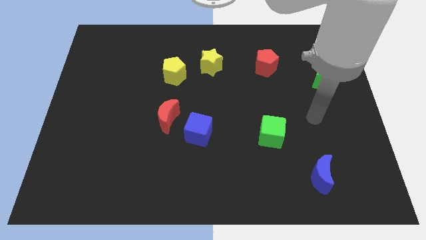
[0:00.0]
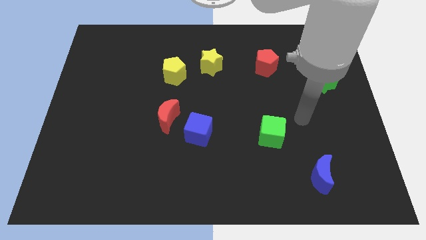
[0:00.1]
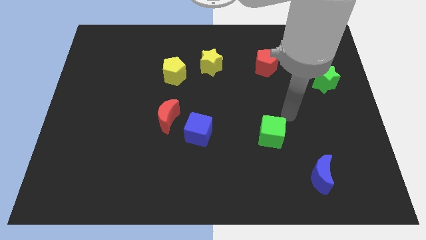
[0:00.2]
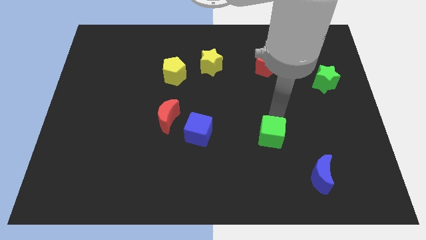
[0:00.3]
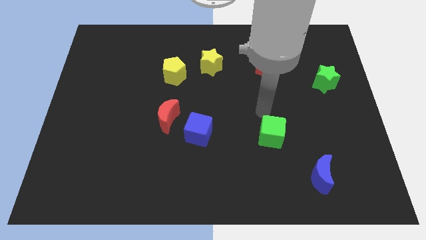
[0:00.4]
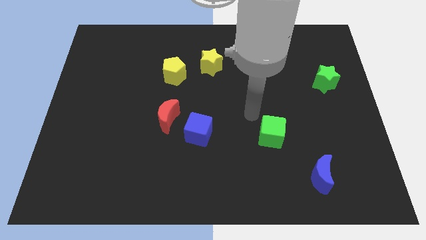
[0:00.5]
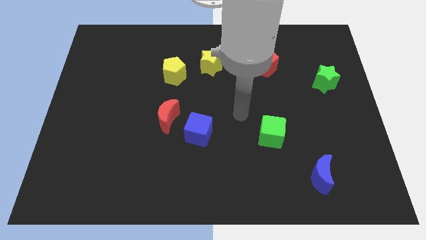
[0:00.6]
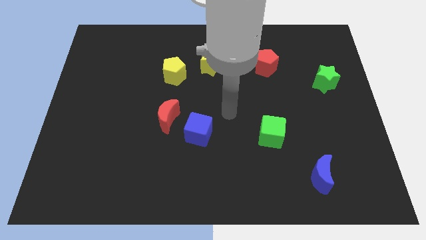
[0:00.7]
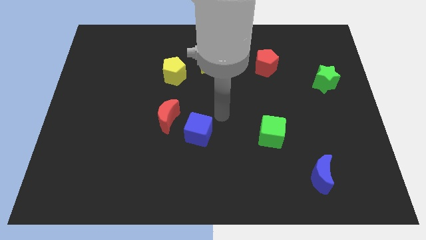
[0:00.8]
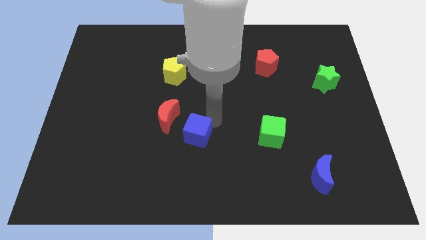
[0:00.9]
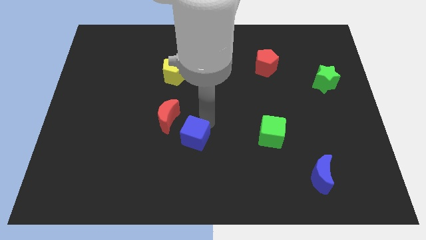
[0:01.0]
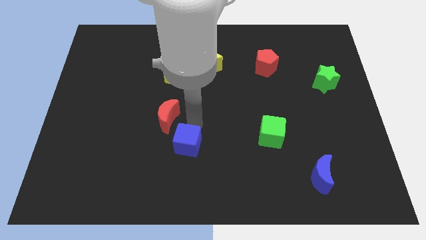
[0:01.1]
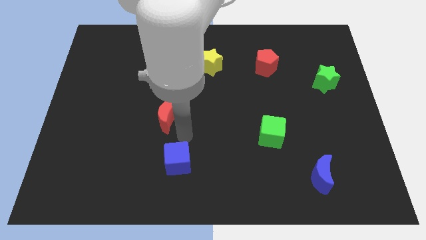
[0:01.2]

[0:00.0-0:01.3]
pull the red moon apart from the blue cube

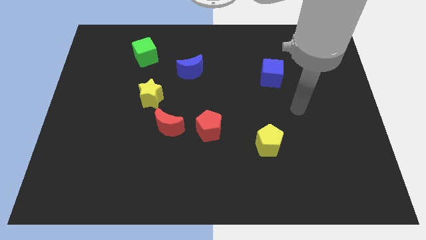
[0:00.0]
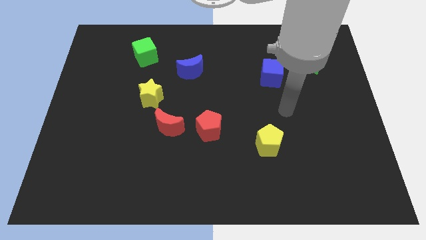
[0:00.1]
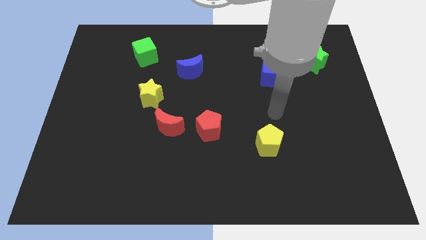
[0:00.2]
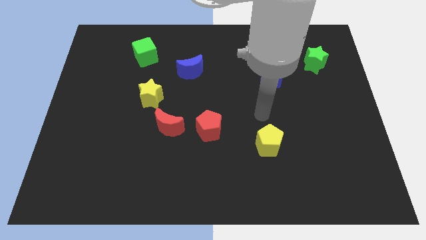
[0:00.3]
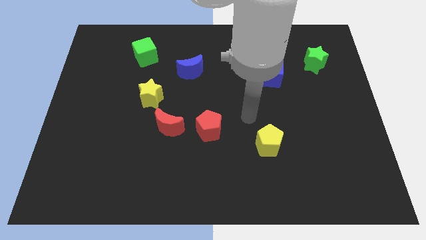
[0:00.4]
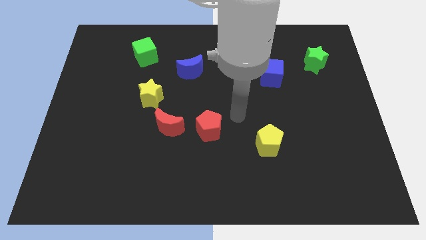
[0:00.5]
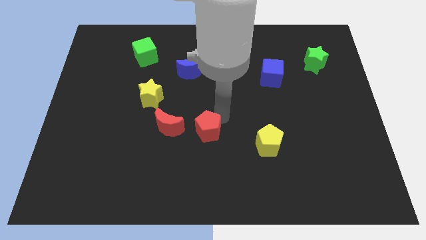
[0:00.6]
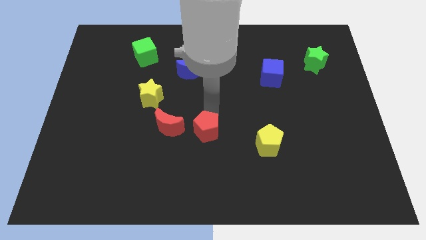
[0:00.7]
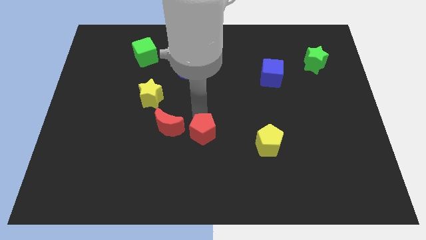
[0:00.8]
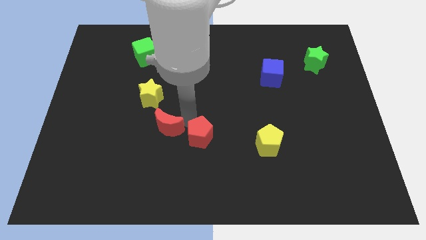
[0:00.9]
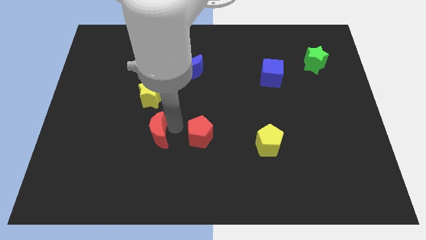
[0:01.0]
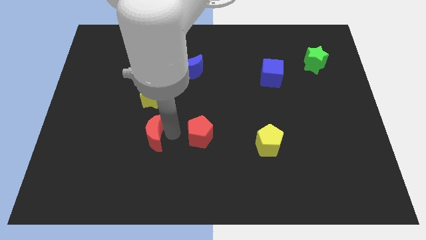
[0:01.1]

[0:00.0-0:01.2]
pull the red pentagon apart from the red moon

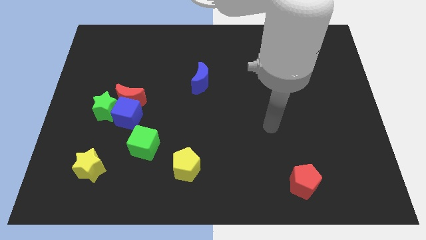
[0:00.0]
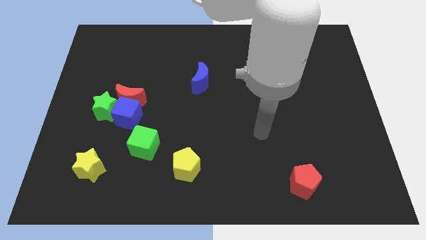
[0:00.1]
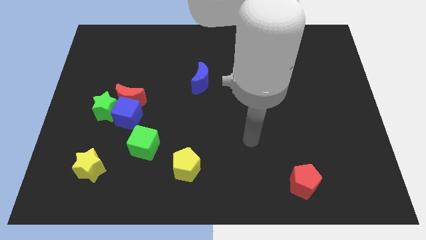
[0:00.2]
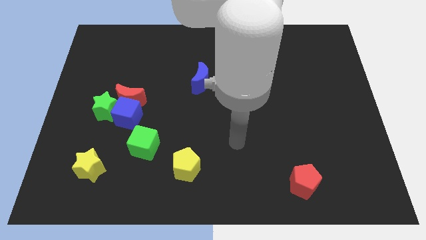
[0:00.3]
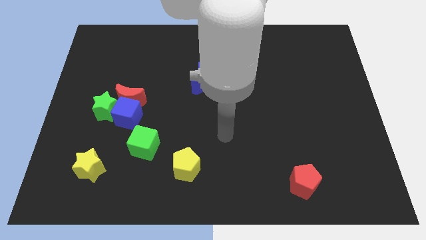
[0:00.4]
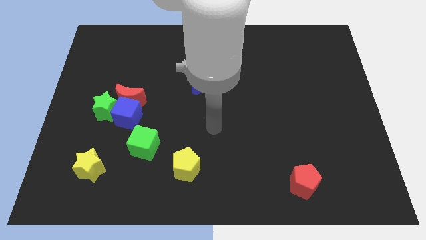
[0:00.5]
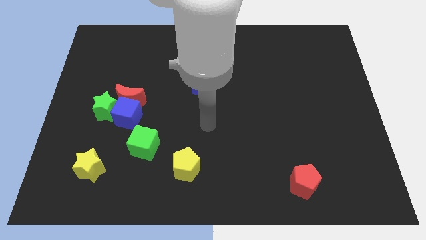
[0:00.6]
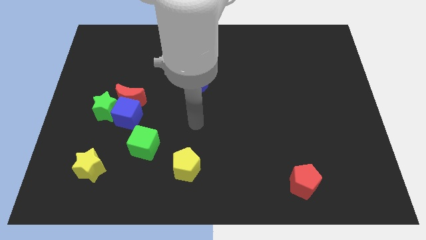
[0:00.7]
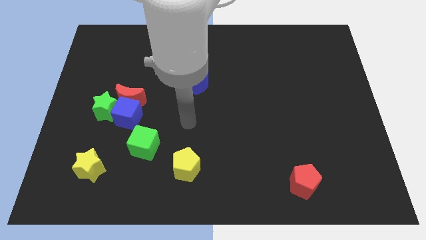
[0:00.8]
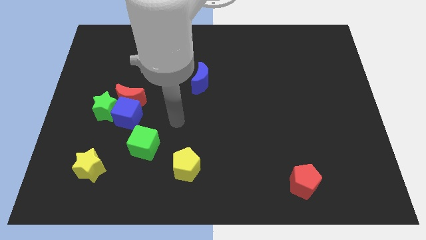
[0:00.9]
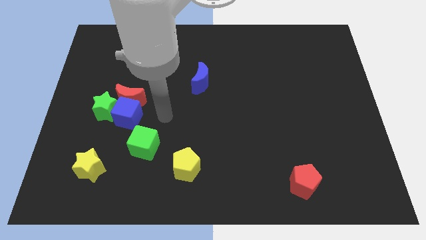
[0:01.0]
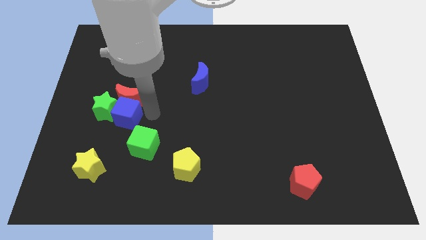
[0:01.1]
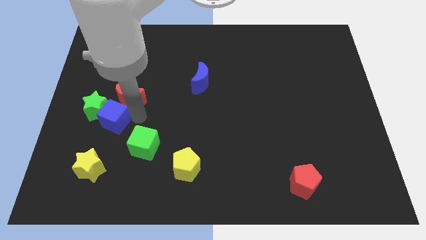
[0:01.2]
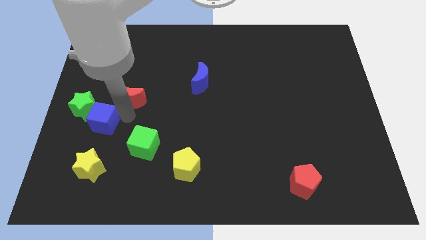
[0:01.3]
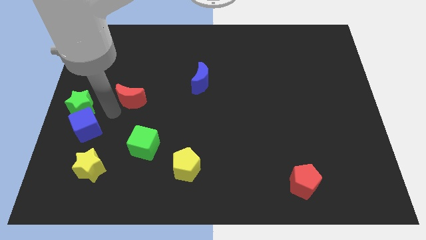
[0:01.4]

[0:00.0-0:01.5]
pull the red moon apart from the blue cube and green star

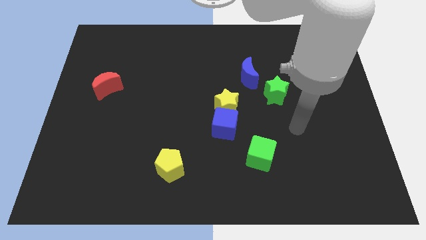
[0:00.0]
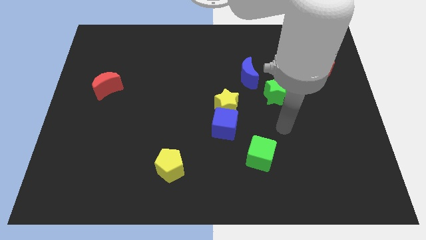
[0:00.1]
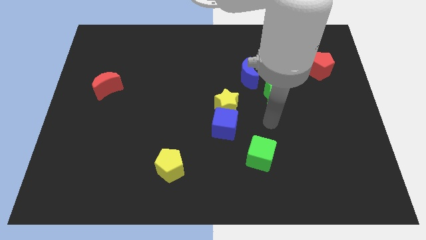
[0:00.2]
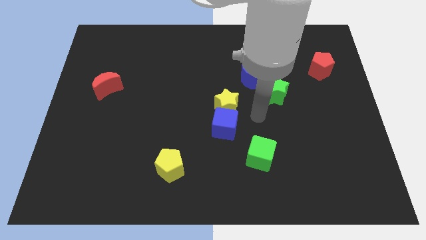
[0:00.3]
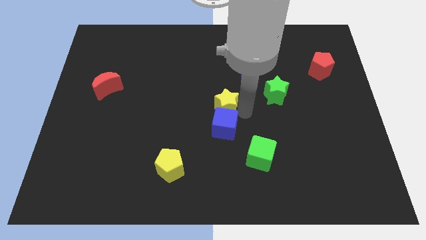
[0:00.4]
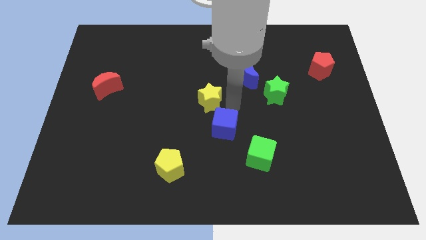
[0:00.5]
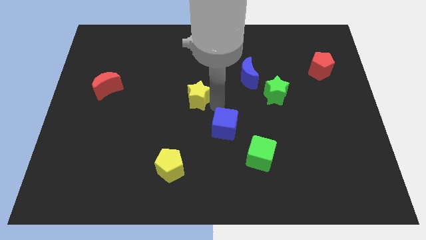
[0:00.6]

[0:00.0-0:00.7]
pull the blue cube apart from the yellow star

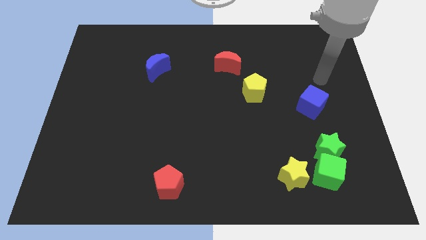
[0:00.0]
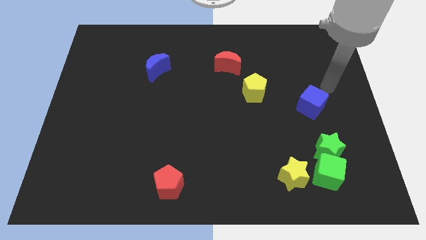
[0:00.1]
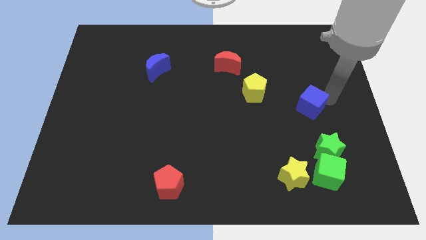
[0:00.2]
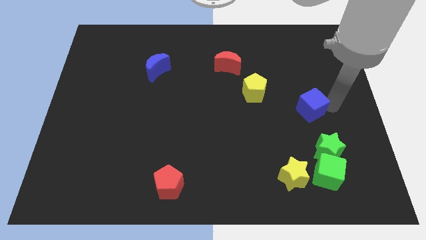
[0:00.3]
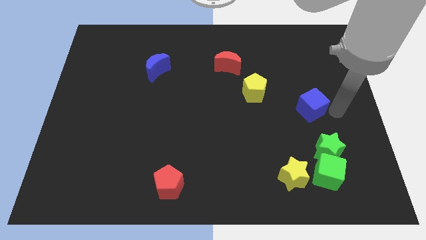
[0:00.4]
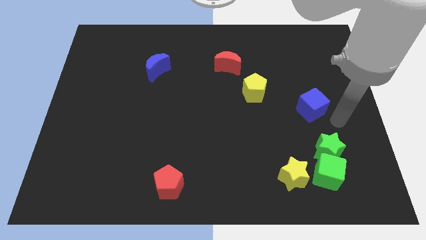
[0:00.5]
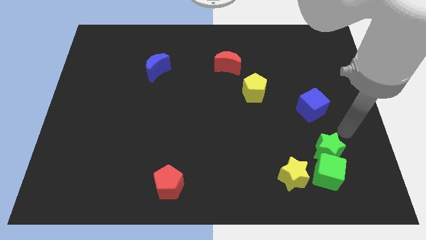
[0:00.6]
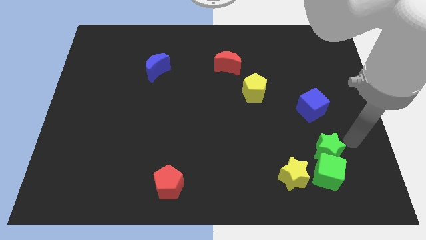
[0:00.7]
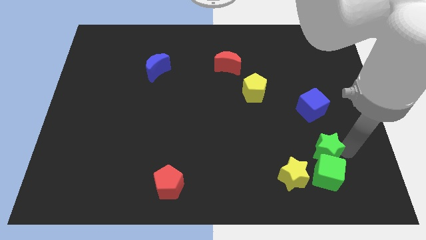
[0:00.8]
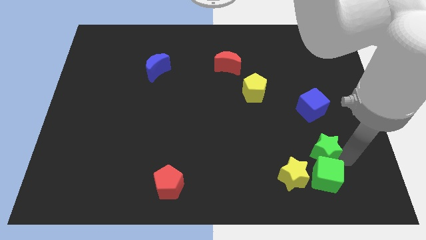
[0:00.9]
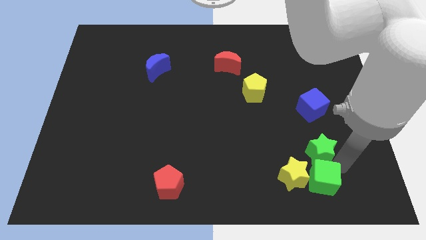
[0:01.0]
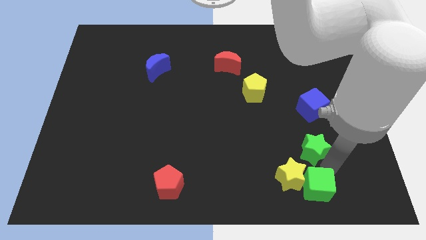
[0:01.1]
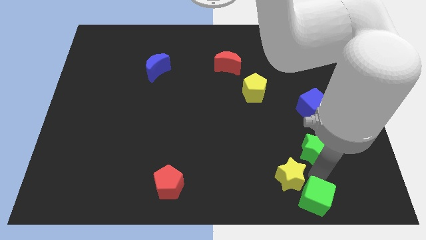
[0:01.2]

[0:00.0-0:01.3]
separate the green star from the green cube

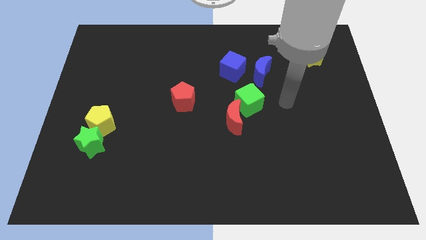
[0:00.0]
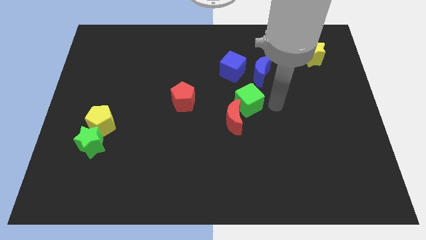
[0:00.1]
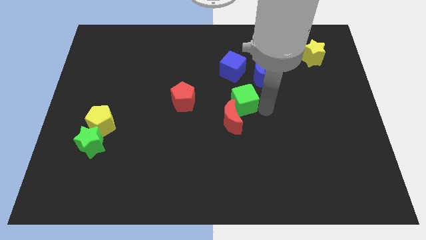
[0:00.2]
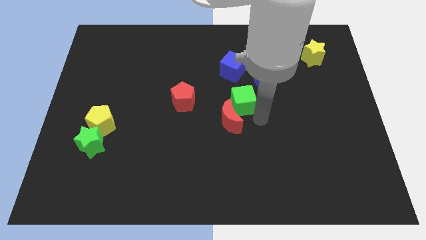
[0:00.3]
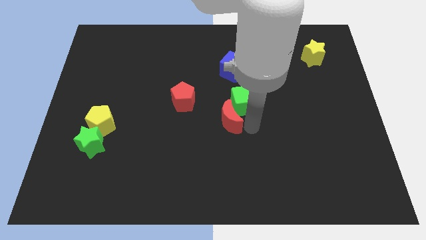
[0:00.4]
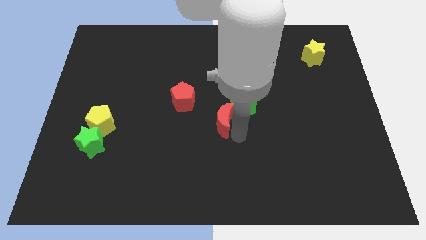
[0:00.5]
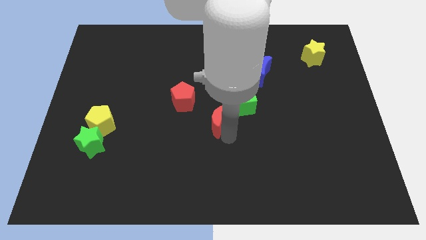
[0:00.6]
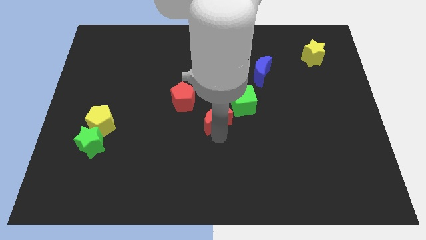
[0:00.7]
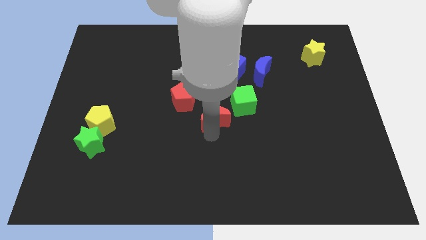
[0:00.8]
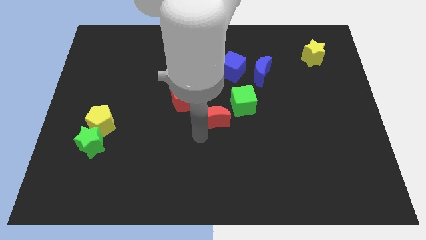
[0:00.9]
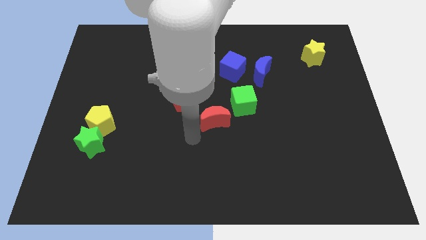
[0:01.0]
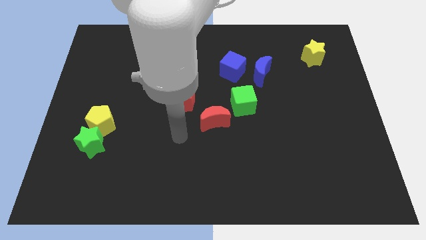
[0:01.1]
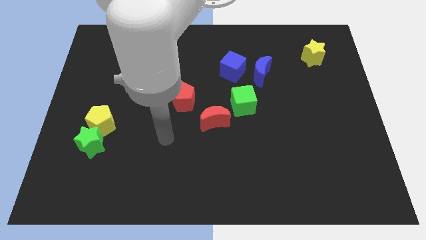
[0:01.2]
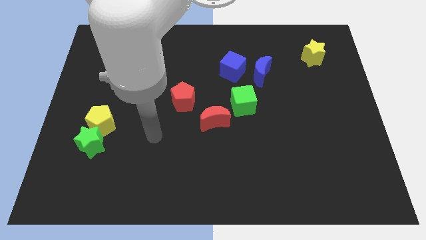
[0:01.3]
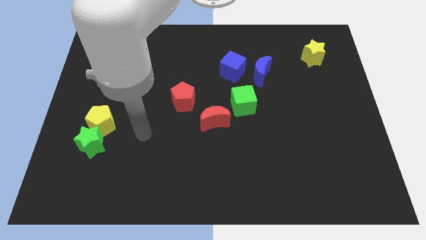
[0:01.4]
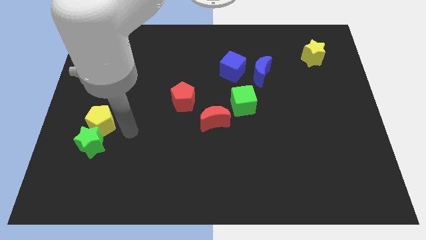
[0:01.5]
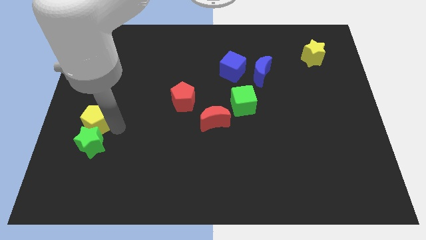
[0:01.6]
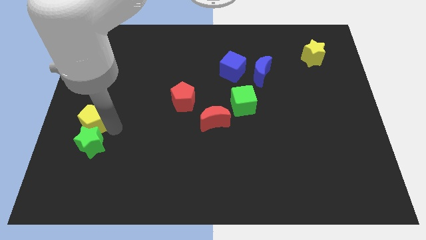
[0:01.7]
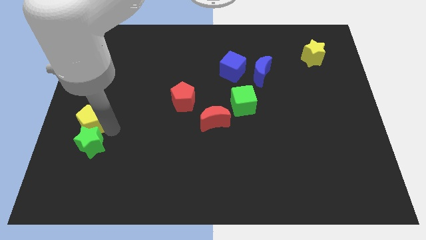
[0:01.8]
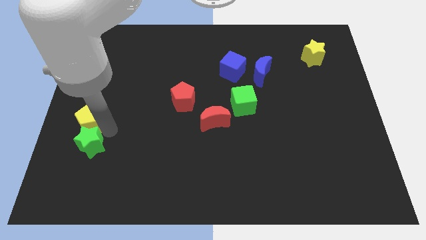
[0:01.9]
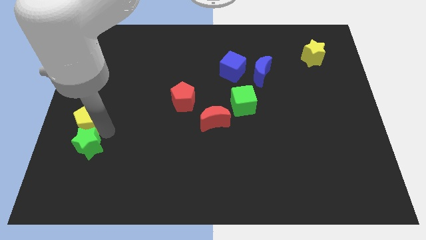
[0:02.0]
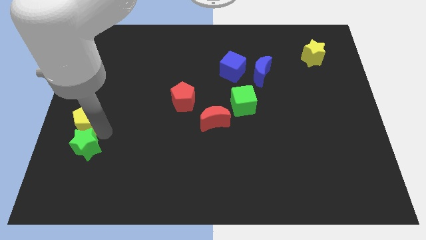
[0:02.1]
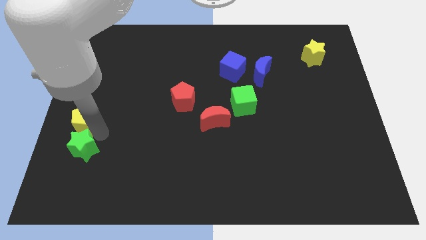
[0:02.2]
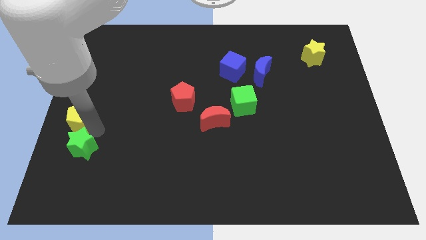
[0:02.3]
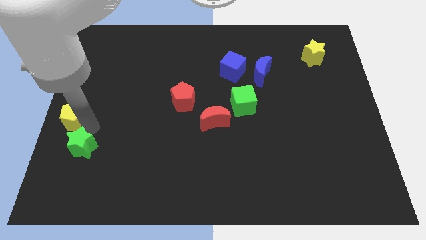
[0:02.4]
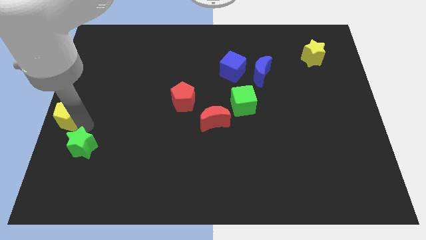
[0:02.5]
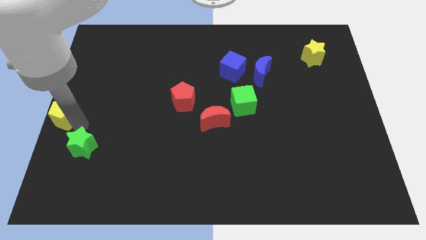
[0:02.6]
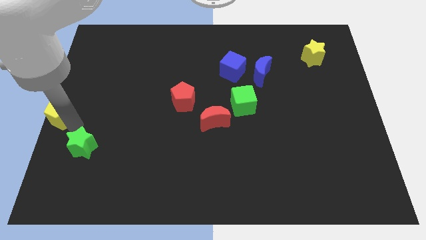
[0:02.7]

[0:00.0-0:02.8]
separate the green star from the yellow pentagon
